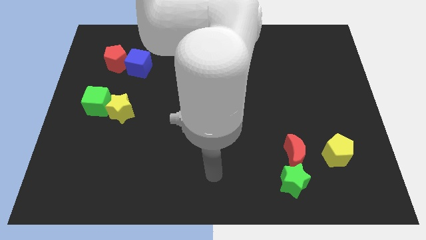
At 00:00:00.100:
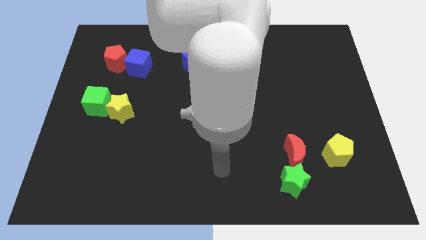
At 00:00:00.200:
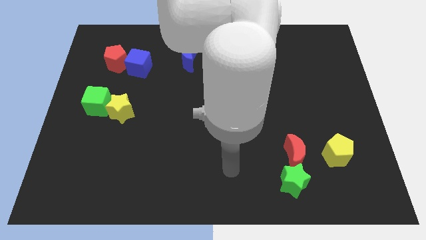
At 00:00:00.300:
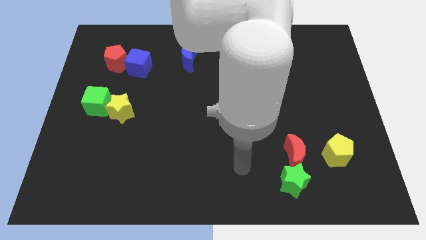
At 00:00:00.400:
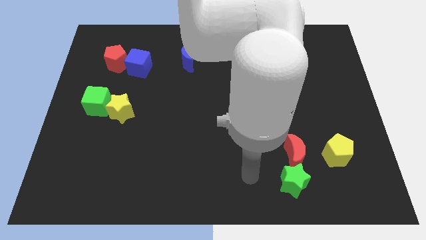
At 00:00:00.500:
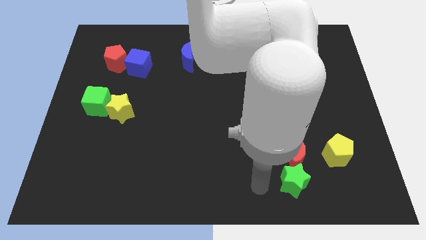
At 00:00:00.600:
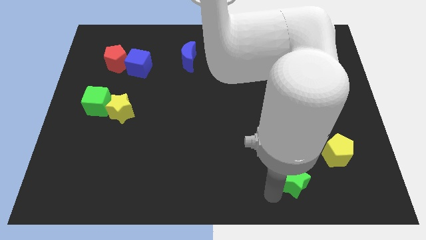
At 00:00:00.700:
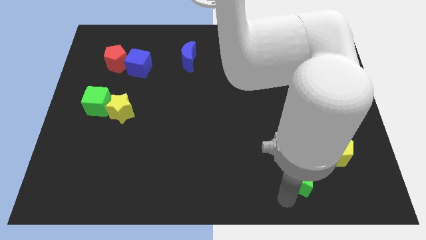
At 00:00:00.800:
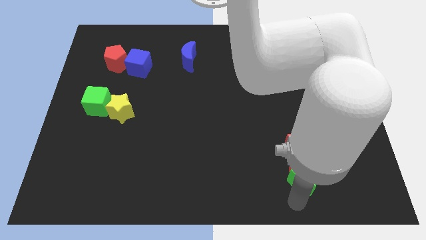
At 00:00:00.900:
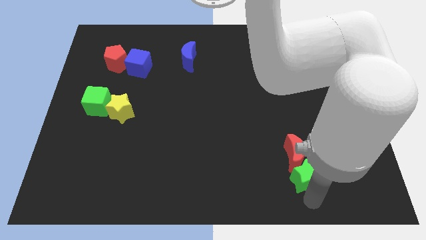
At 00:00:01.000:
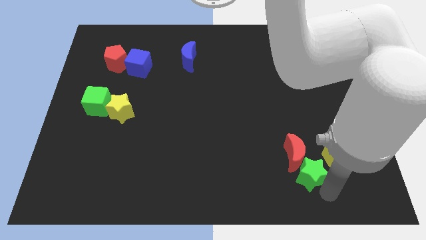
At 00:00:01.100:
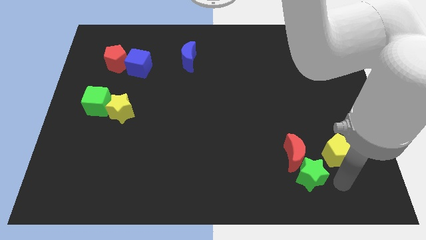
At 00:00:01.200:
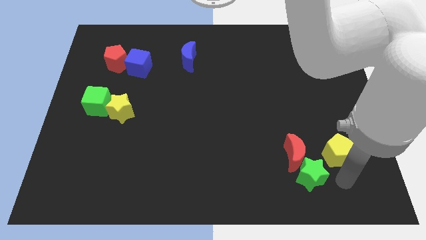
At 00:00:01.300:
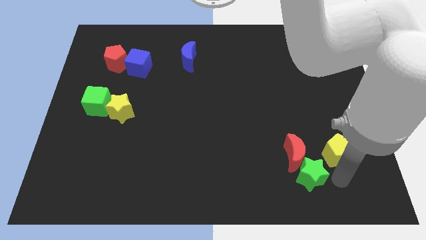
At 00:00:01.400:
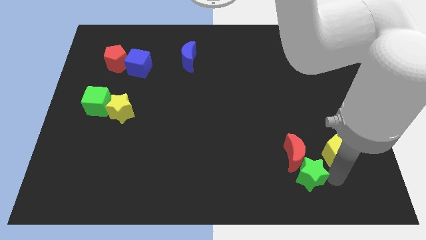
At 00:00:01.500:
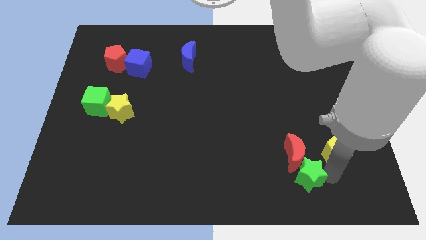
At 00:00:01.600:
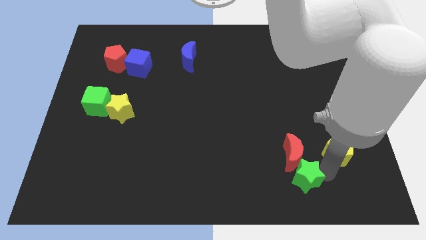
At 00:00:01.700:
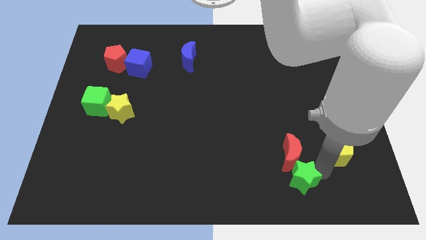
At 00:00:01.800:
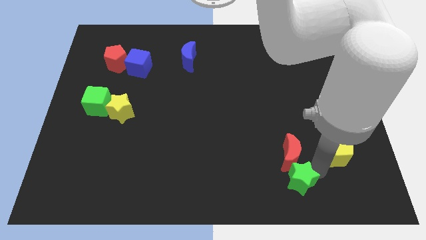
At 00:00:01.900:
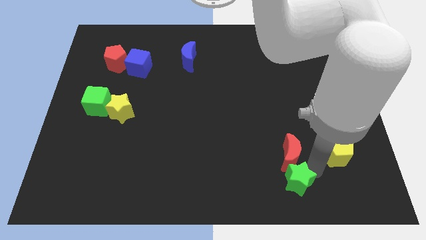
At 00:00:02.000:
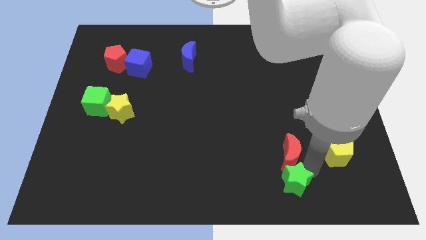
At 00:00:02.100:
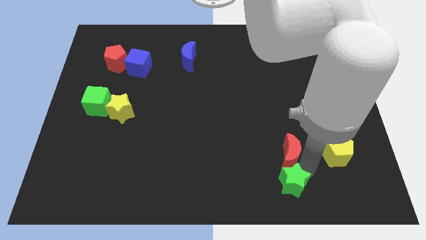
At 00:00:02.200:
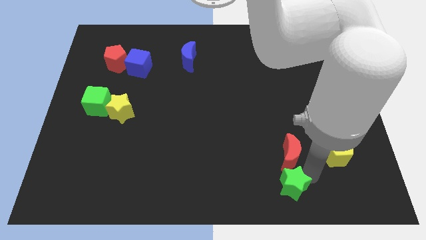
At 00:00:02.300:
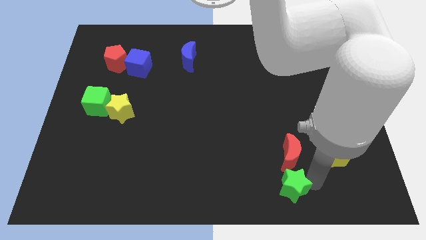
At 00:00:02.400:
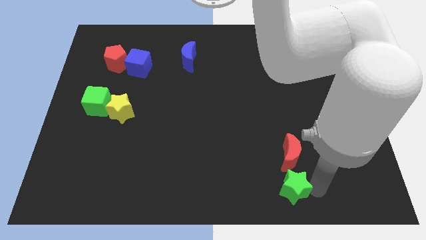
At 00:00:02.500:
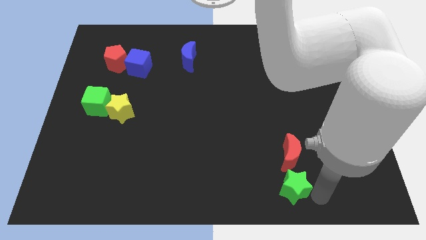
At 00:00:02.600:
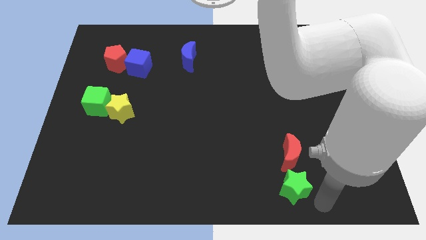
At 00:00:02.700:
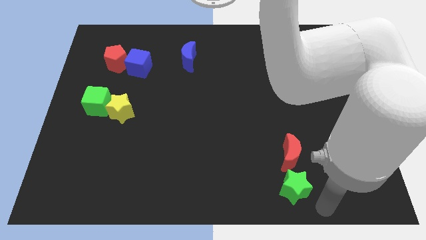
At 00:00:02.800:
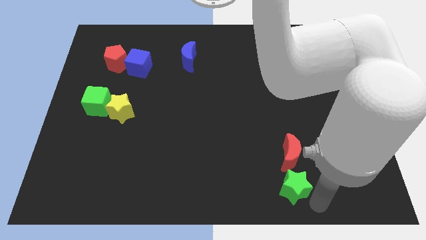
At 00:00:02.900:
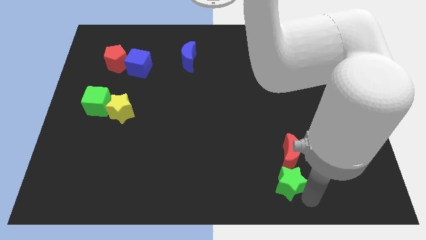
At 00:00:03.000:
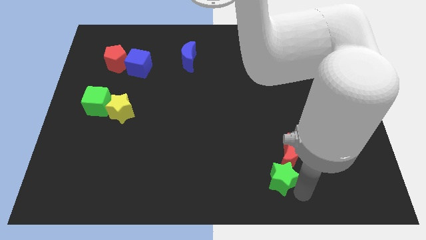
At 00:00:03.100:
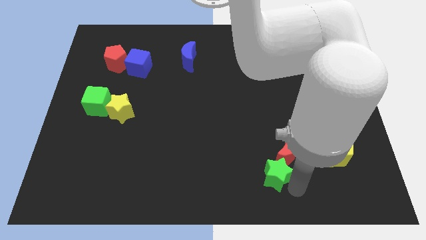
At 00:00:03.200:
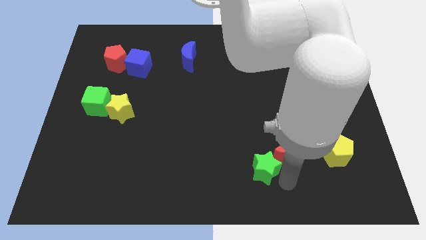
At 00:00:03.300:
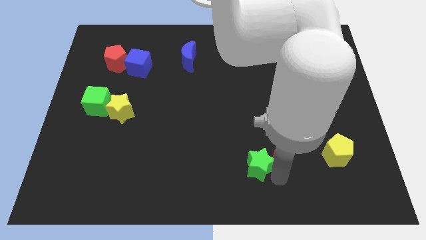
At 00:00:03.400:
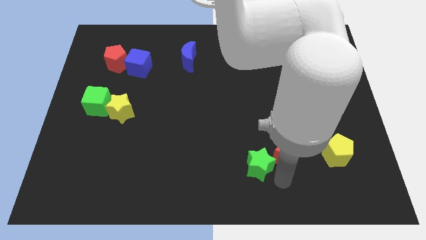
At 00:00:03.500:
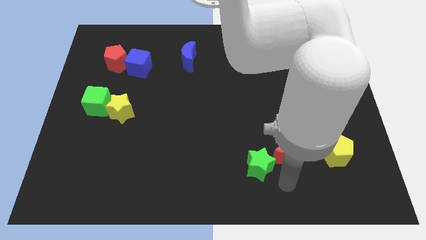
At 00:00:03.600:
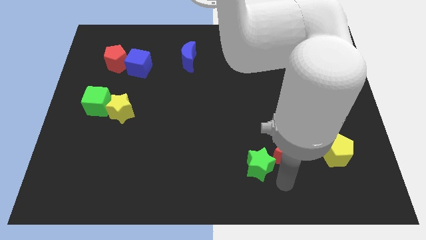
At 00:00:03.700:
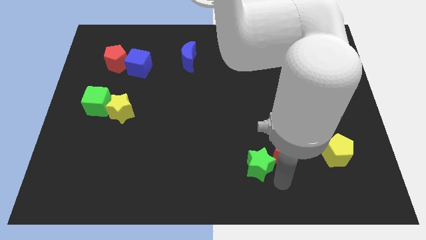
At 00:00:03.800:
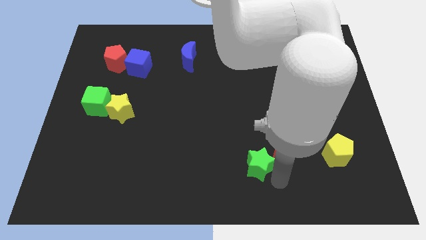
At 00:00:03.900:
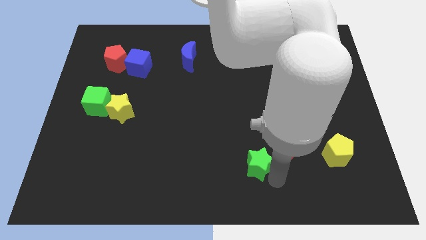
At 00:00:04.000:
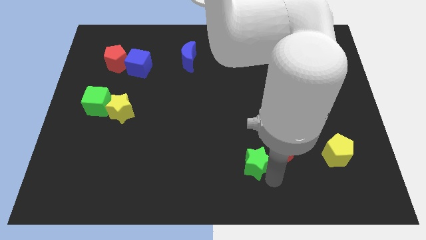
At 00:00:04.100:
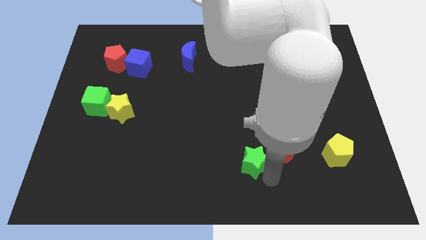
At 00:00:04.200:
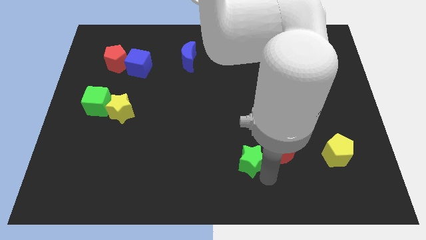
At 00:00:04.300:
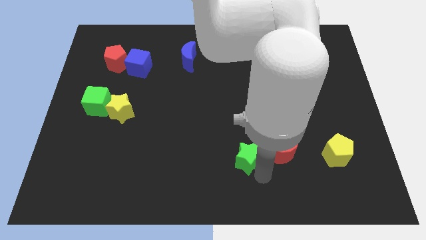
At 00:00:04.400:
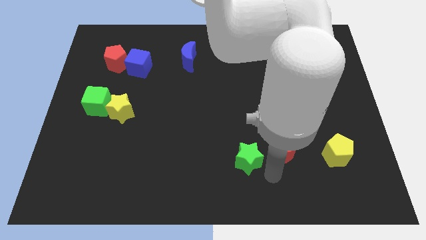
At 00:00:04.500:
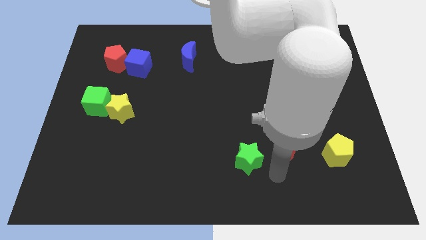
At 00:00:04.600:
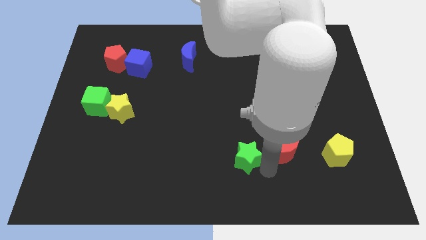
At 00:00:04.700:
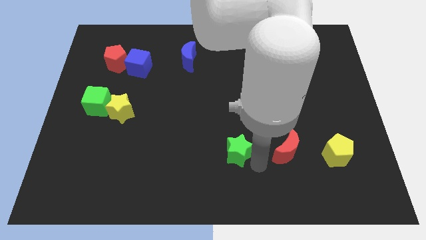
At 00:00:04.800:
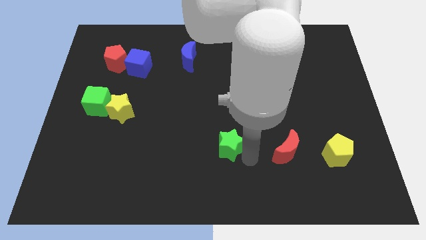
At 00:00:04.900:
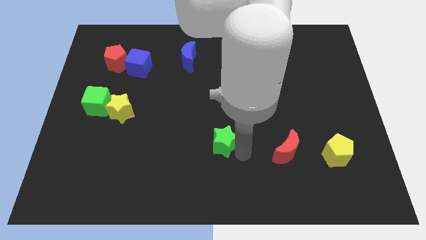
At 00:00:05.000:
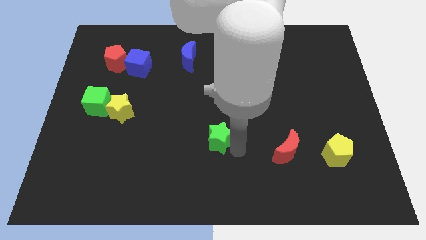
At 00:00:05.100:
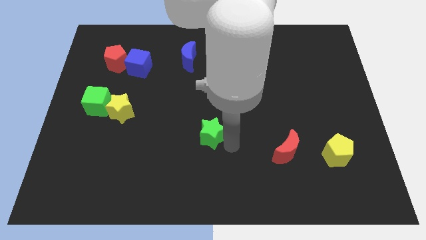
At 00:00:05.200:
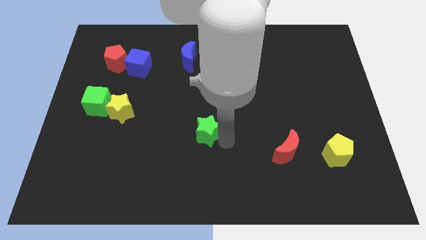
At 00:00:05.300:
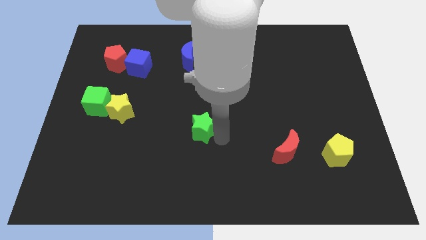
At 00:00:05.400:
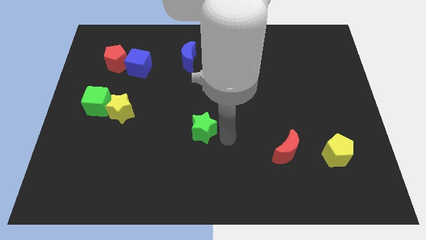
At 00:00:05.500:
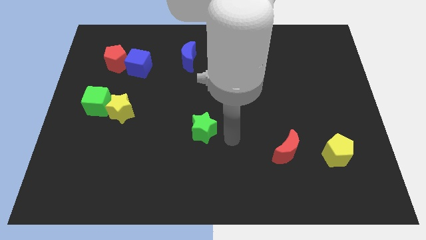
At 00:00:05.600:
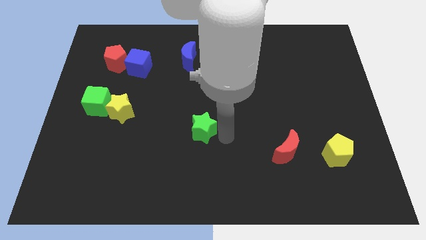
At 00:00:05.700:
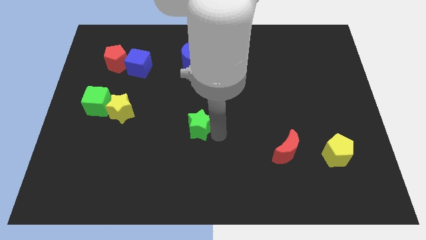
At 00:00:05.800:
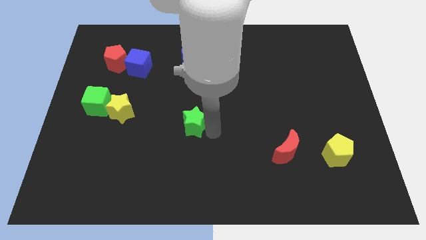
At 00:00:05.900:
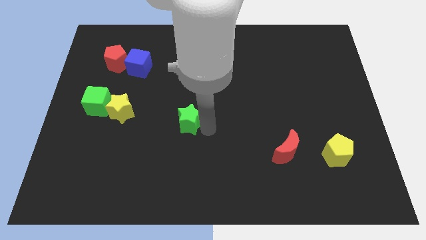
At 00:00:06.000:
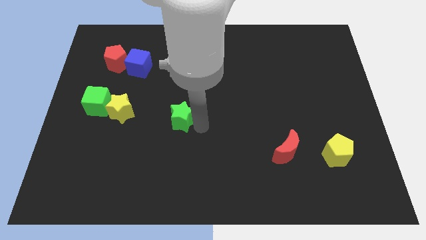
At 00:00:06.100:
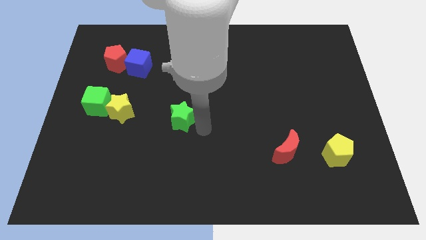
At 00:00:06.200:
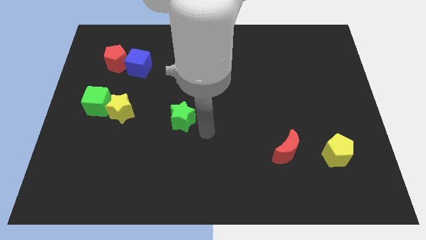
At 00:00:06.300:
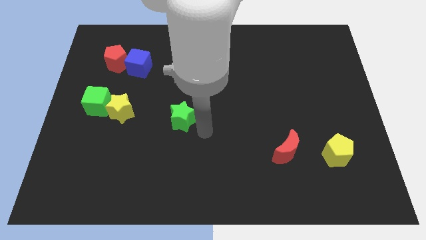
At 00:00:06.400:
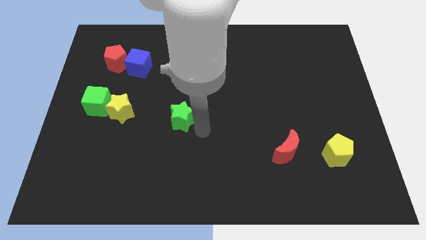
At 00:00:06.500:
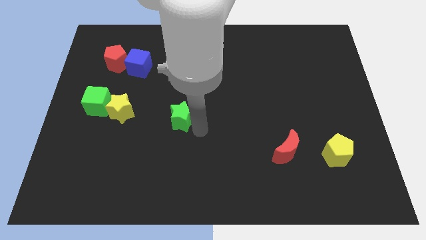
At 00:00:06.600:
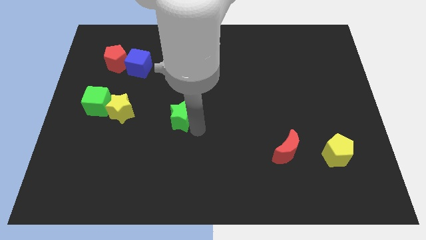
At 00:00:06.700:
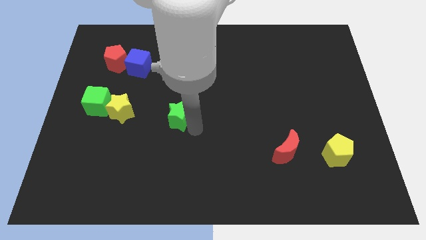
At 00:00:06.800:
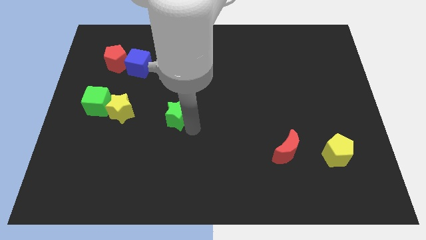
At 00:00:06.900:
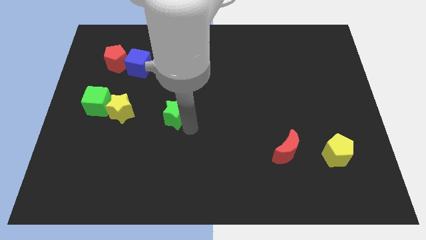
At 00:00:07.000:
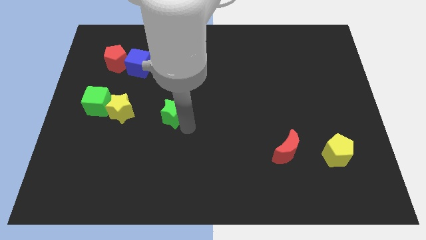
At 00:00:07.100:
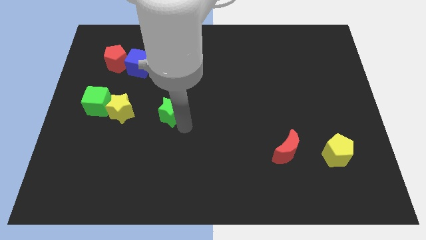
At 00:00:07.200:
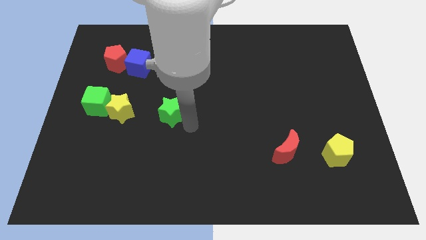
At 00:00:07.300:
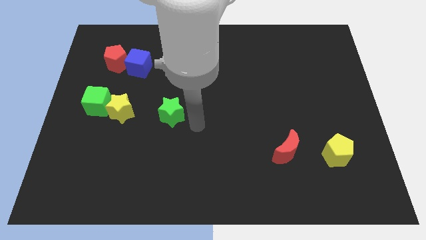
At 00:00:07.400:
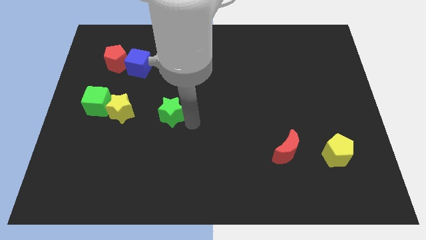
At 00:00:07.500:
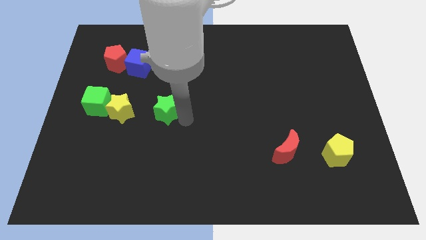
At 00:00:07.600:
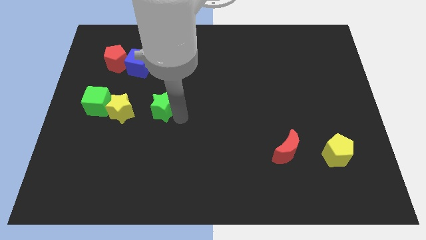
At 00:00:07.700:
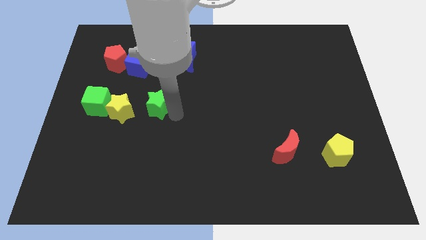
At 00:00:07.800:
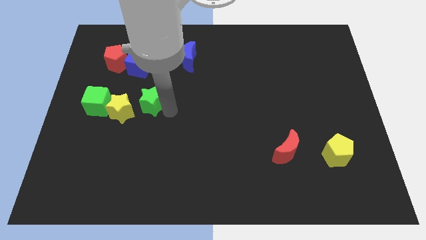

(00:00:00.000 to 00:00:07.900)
put the green star to the bottom of the blue cube
